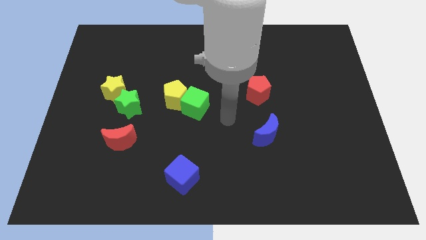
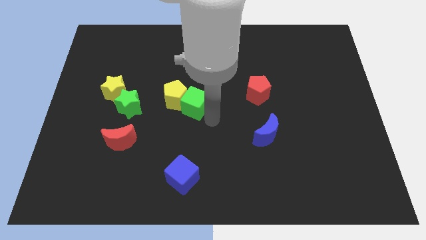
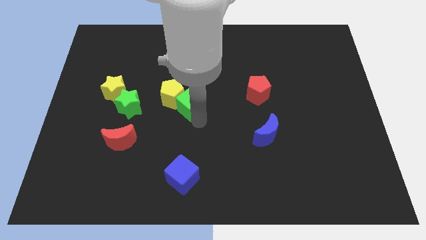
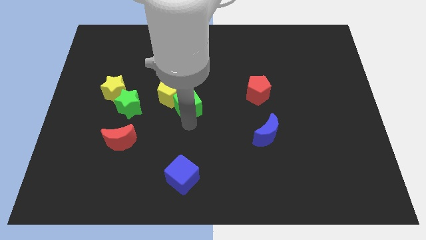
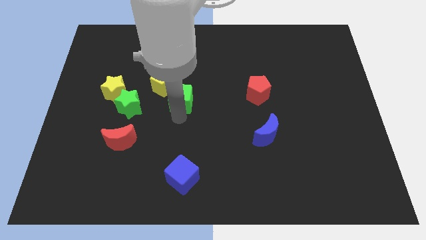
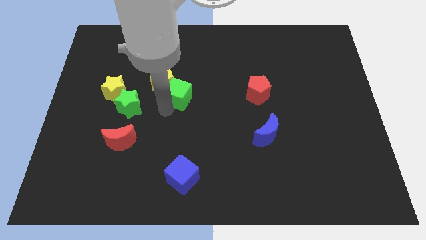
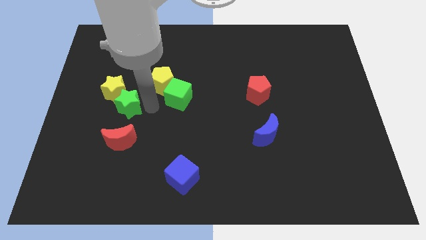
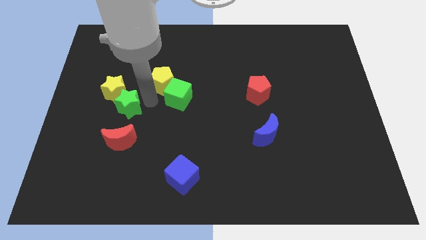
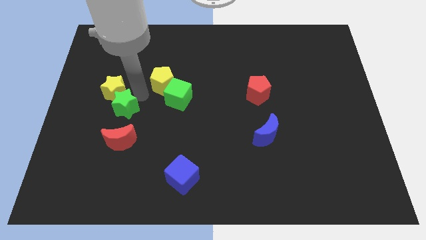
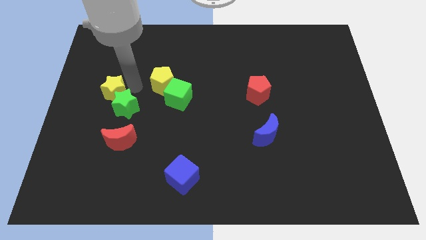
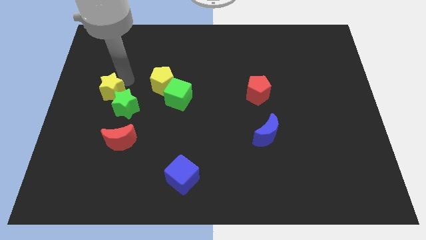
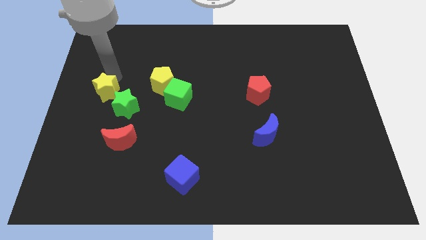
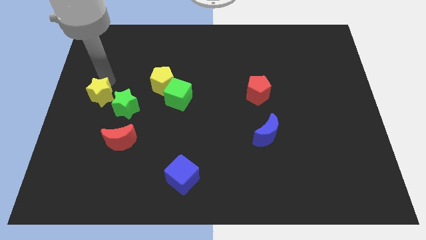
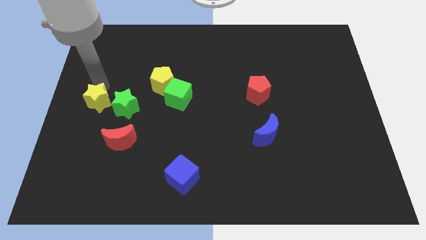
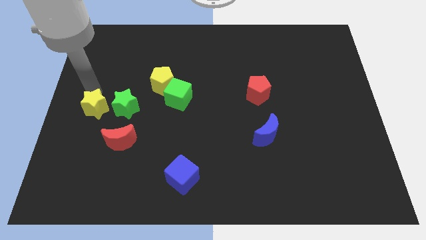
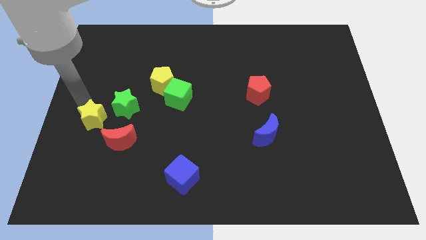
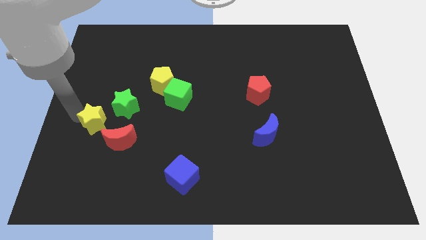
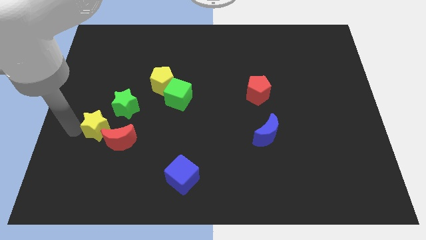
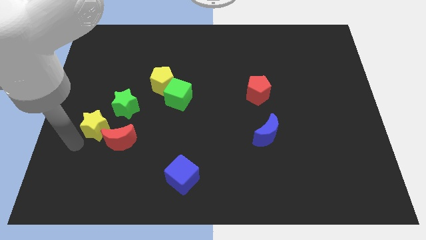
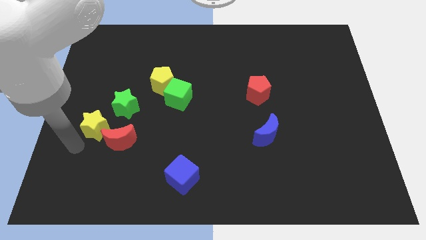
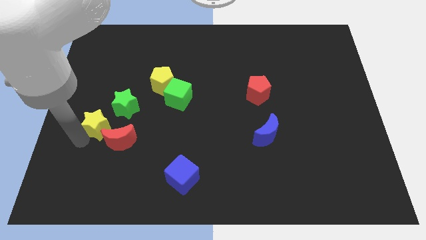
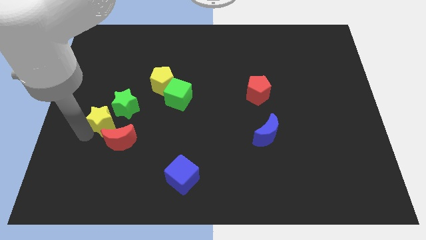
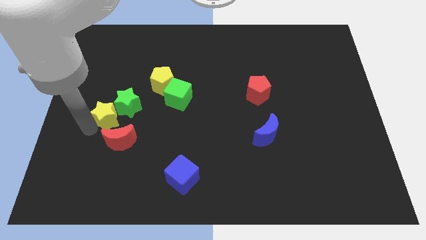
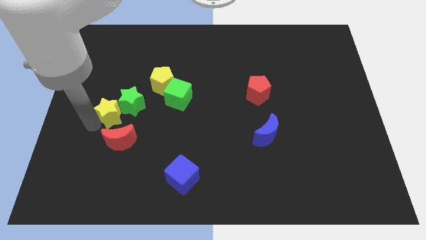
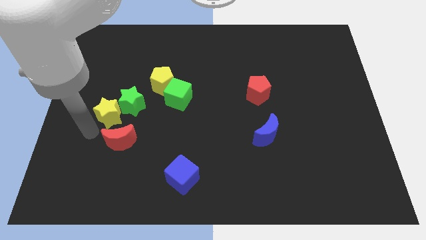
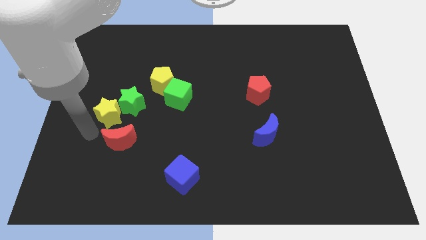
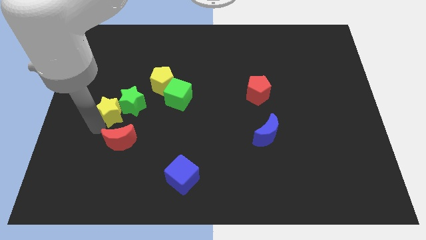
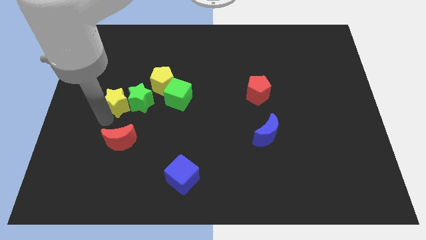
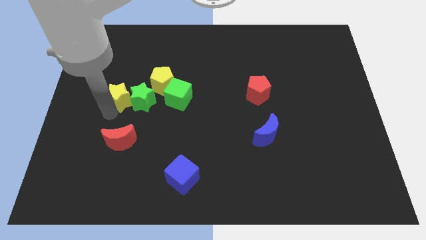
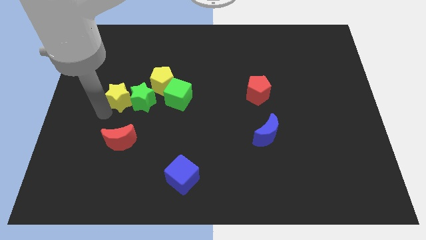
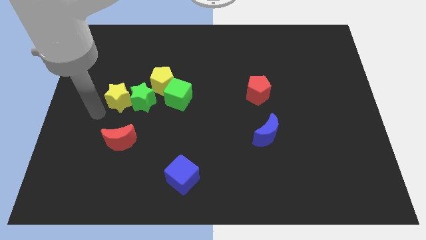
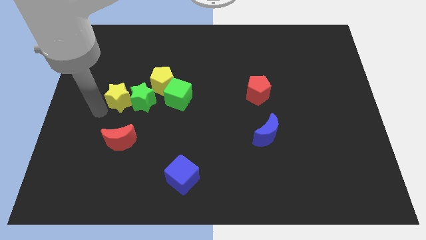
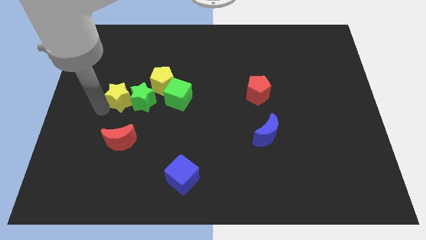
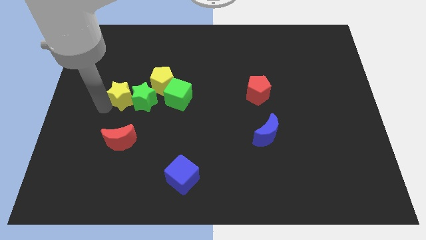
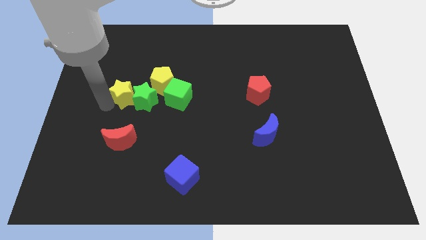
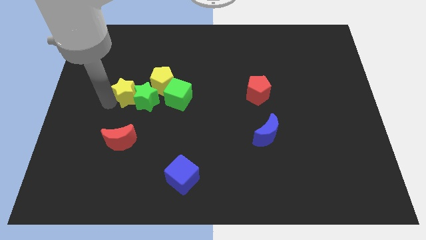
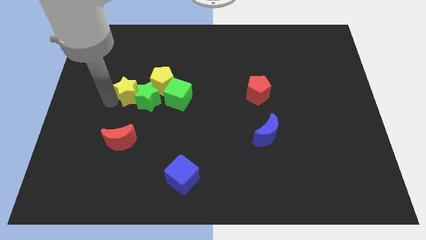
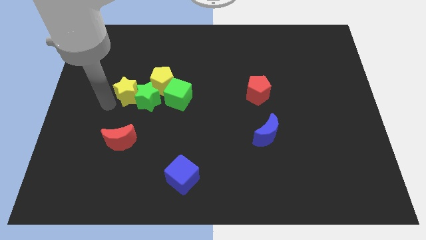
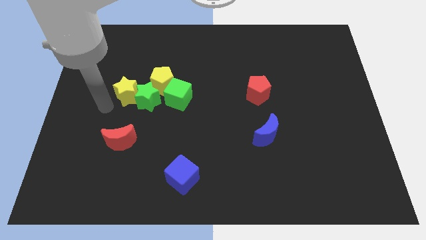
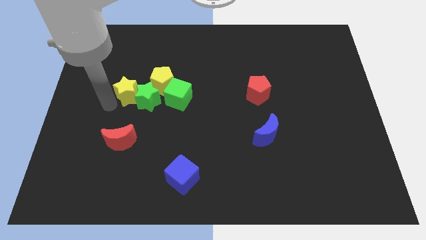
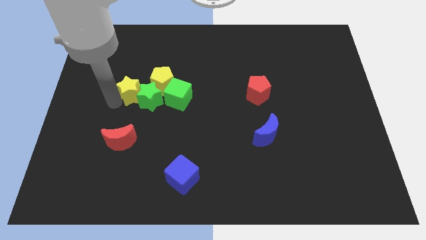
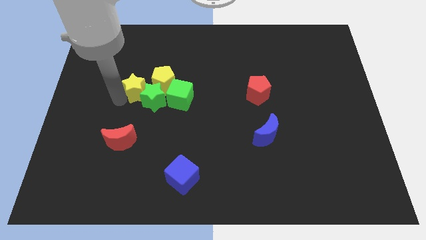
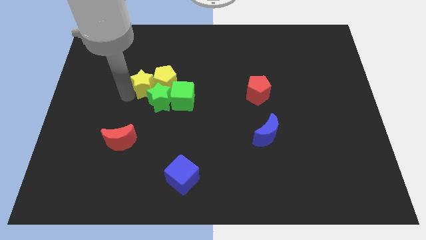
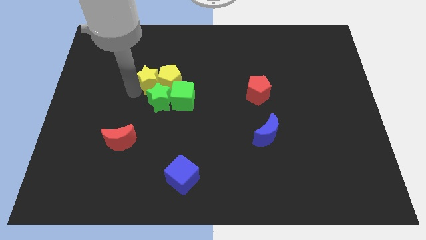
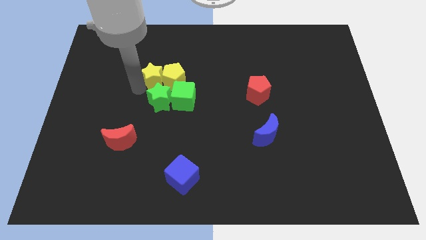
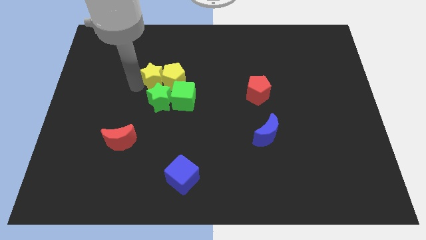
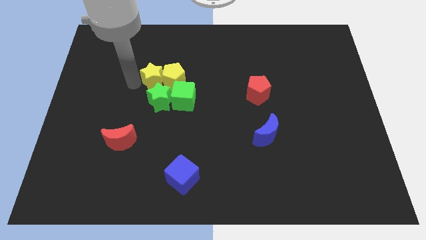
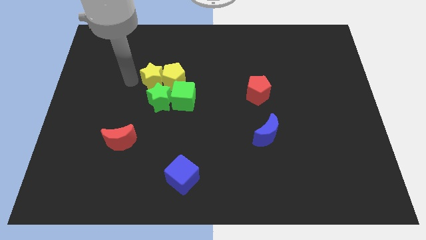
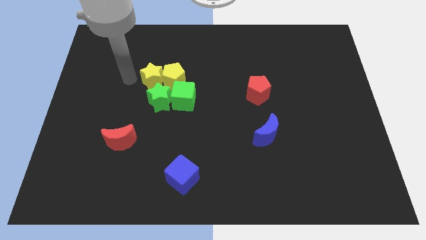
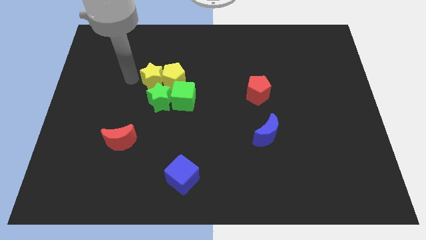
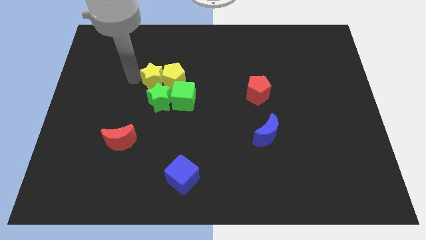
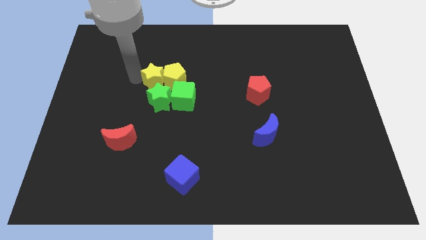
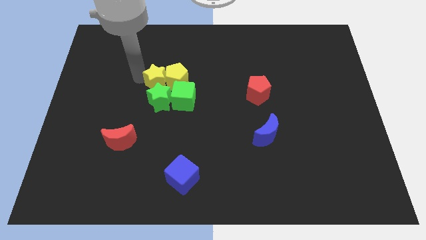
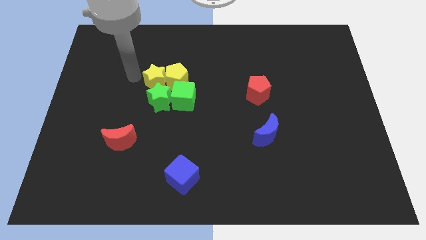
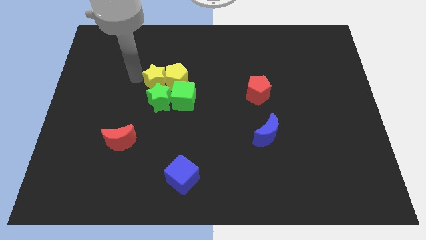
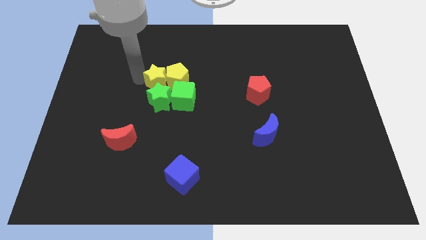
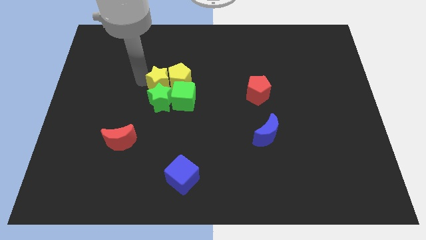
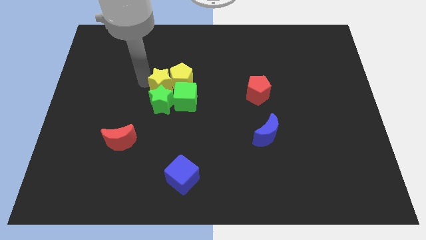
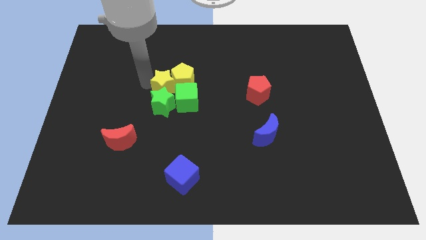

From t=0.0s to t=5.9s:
move the yellow star to the center
